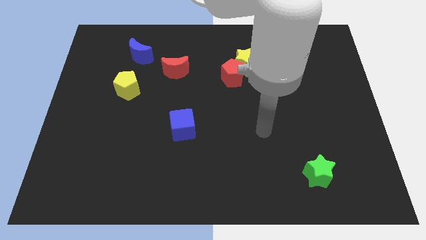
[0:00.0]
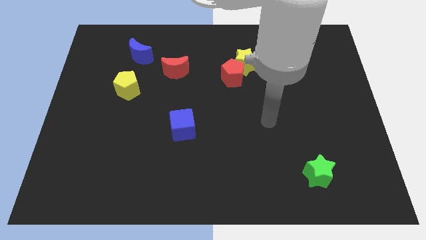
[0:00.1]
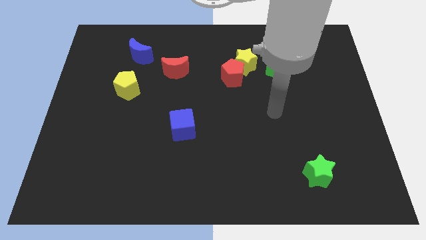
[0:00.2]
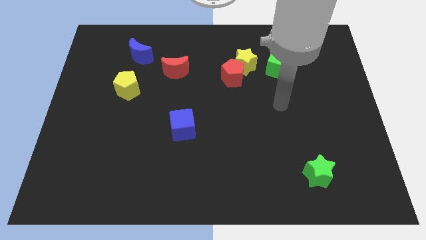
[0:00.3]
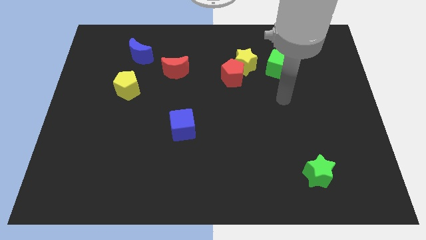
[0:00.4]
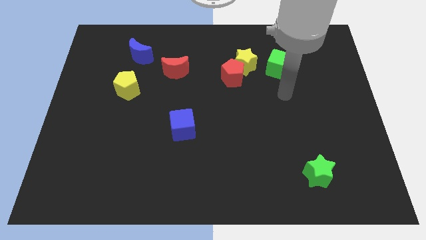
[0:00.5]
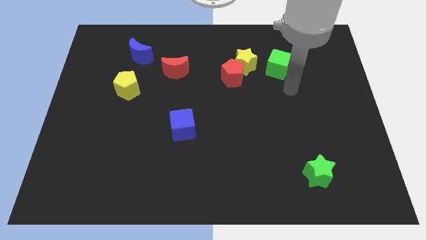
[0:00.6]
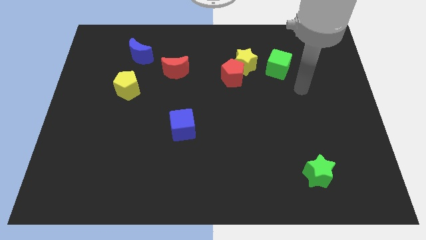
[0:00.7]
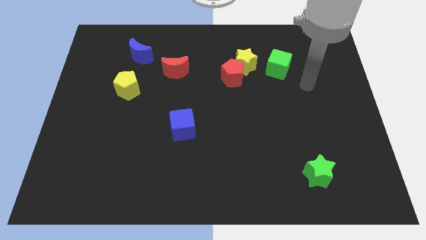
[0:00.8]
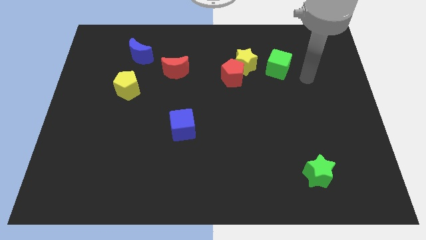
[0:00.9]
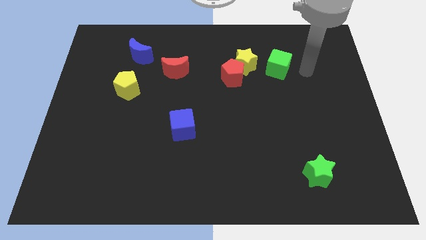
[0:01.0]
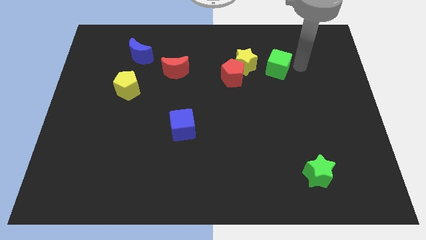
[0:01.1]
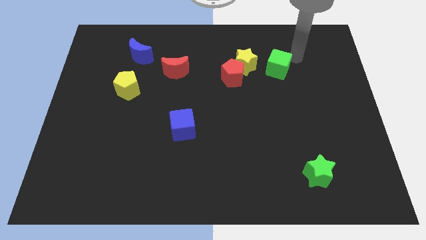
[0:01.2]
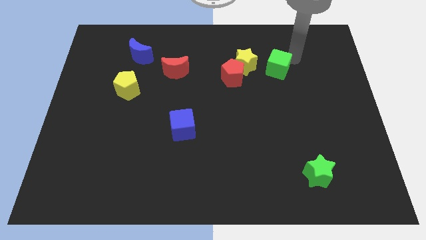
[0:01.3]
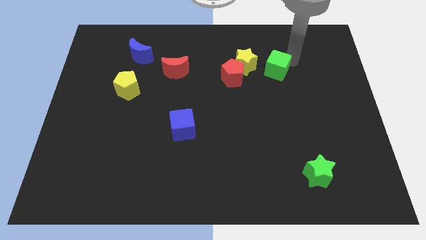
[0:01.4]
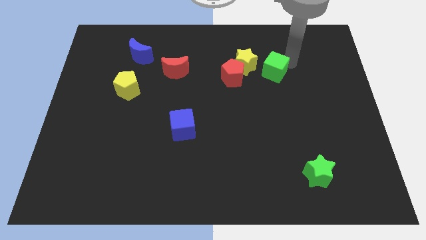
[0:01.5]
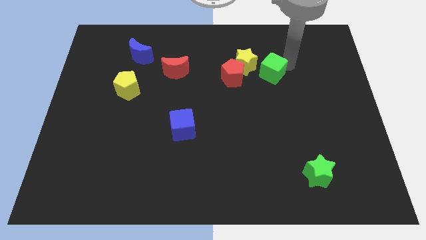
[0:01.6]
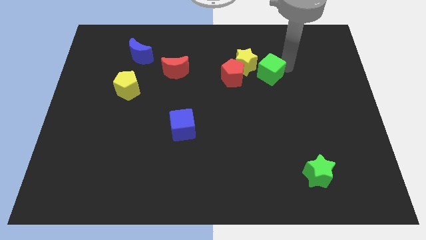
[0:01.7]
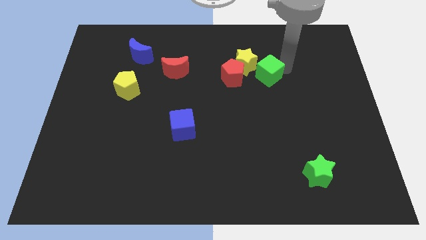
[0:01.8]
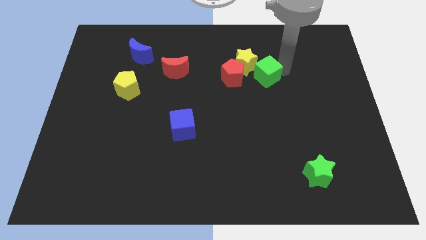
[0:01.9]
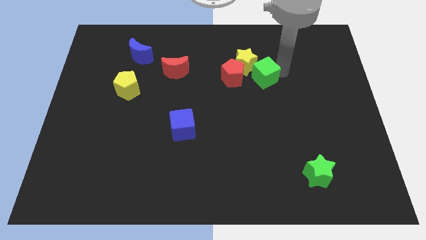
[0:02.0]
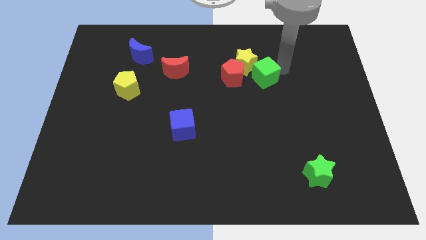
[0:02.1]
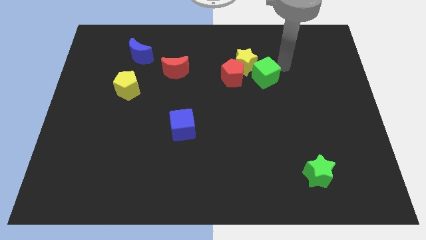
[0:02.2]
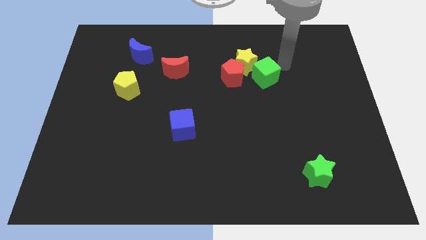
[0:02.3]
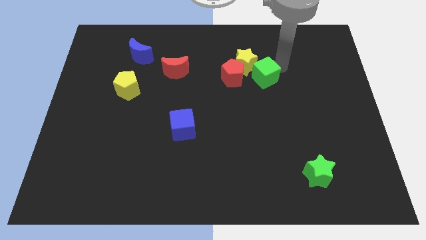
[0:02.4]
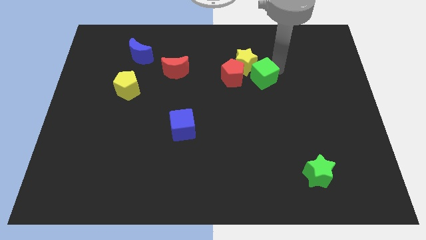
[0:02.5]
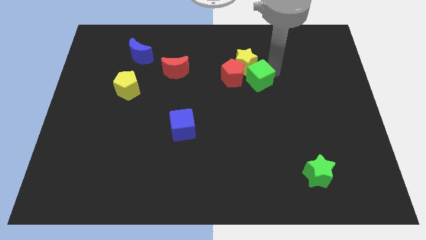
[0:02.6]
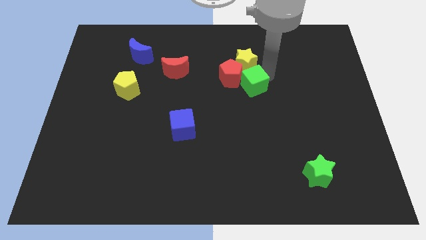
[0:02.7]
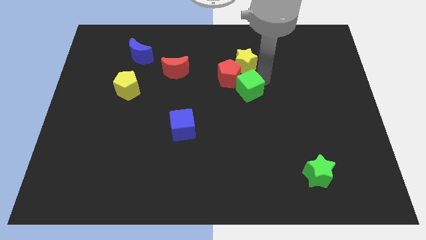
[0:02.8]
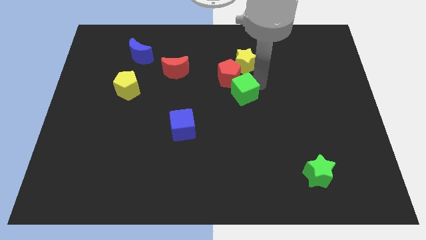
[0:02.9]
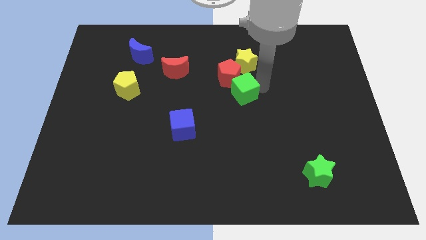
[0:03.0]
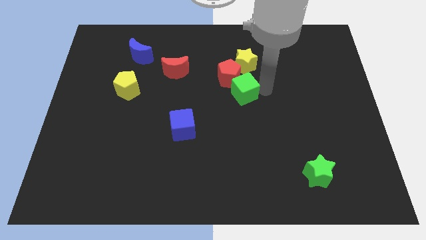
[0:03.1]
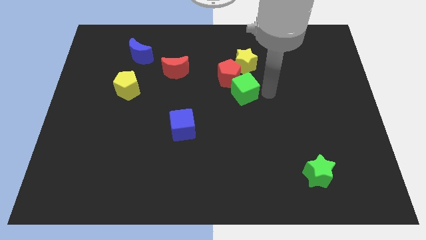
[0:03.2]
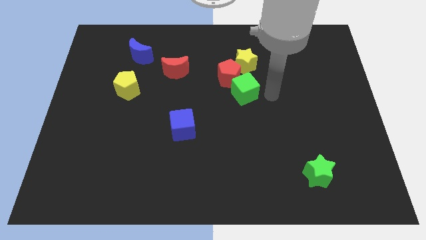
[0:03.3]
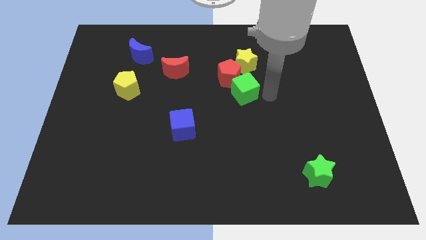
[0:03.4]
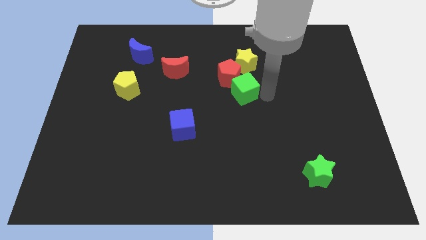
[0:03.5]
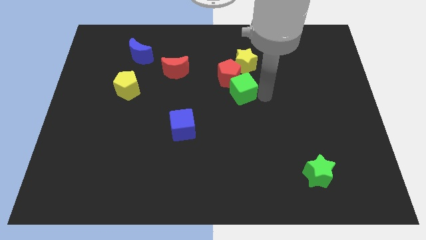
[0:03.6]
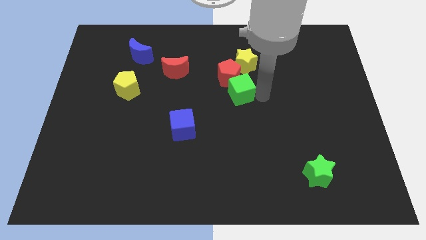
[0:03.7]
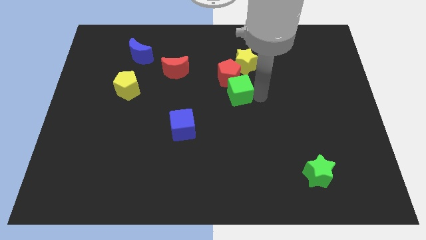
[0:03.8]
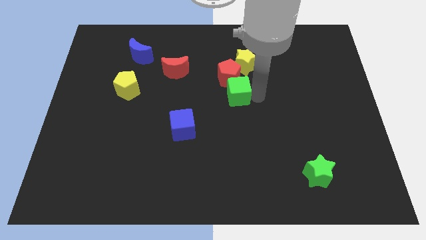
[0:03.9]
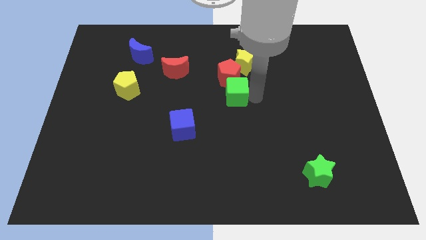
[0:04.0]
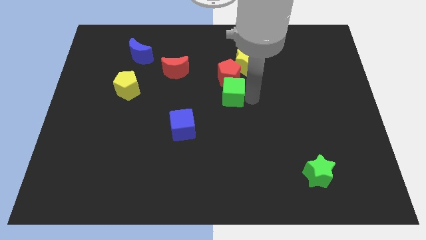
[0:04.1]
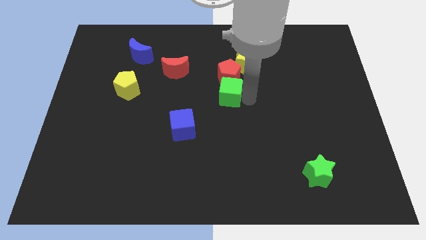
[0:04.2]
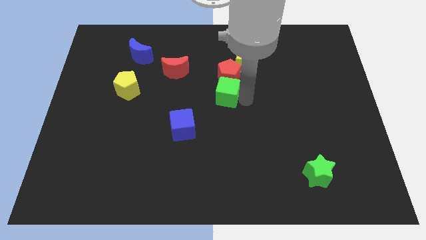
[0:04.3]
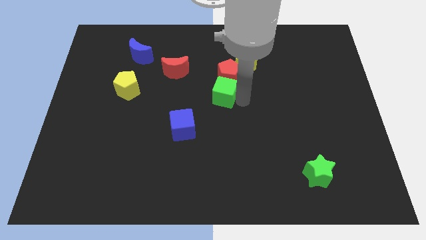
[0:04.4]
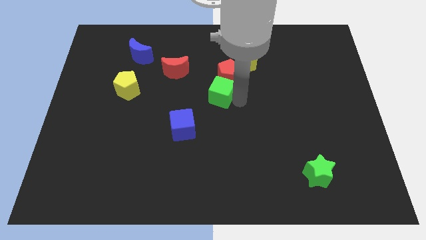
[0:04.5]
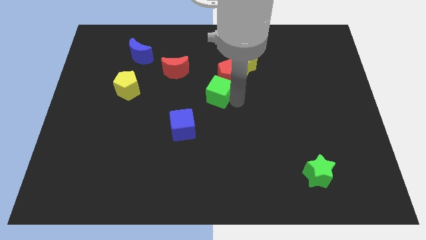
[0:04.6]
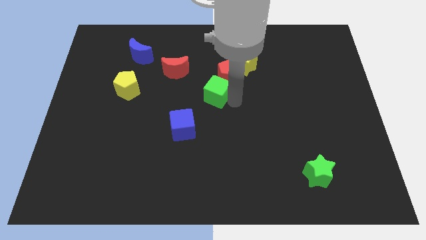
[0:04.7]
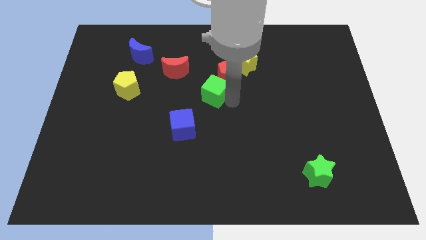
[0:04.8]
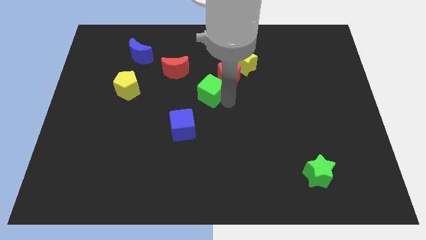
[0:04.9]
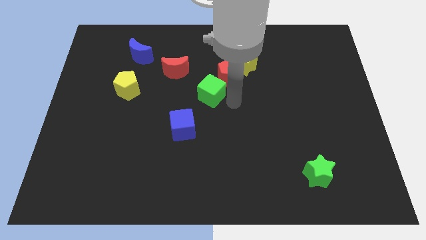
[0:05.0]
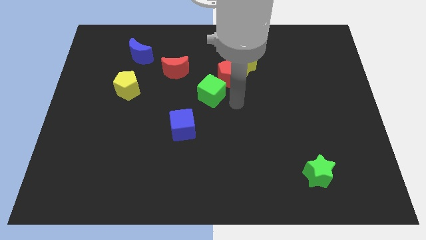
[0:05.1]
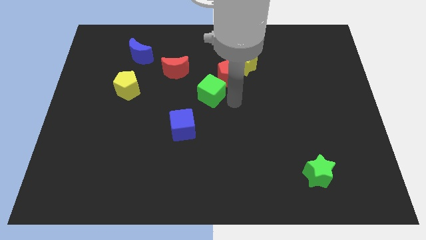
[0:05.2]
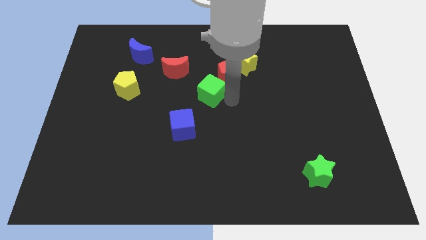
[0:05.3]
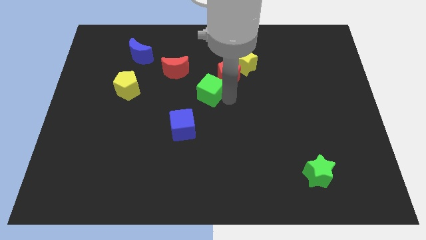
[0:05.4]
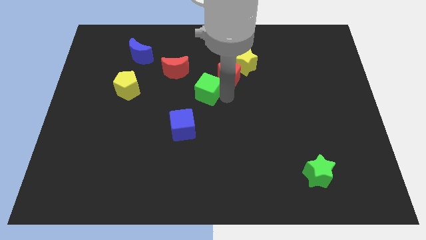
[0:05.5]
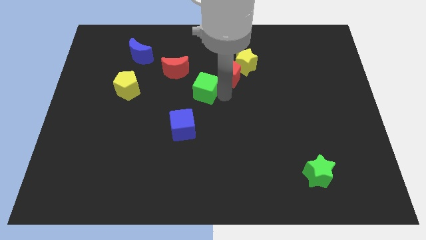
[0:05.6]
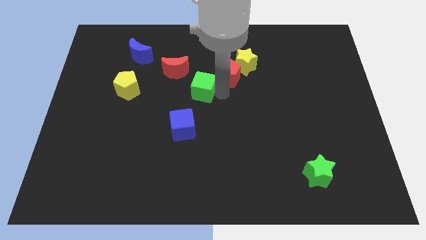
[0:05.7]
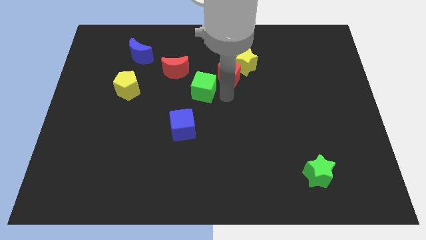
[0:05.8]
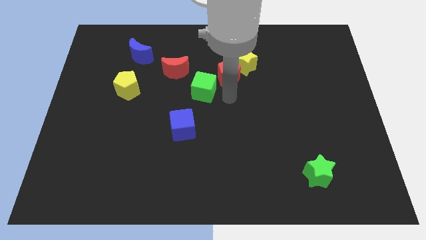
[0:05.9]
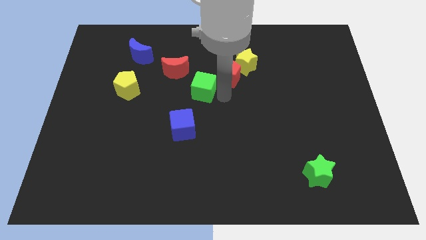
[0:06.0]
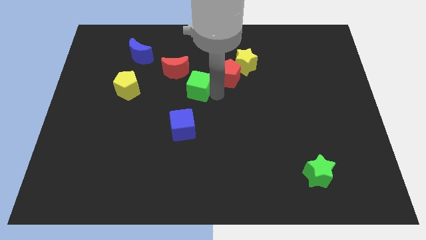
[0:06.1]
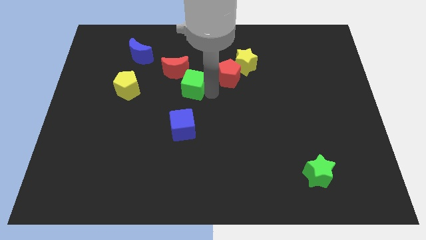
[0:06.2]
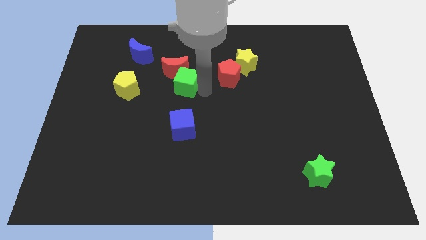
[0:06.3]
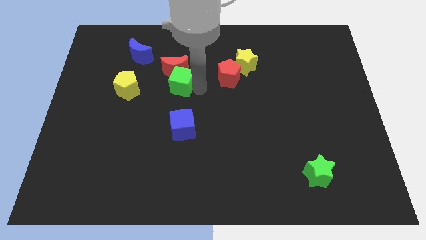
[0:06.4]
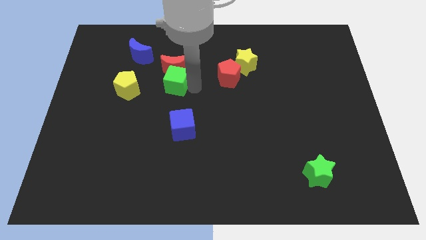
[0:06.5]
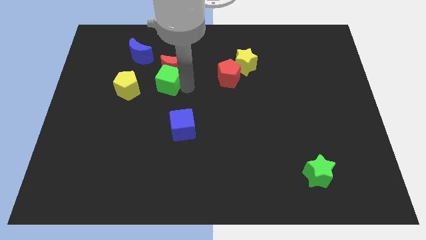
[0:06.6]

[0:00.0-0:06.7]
move the green cube to the bottom right side of the blue moon
